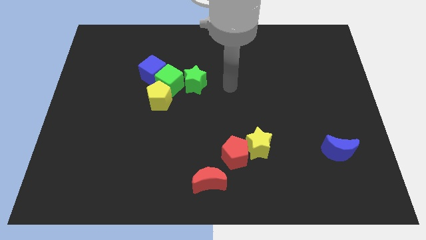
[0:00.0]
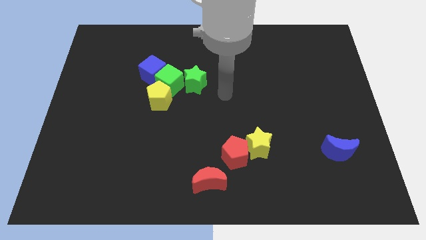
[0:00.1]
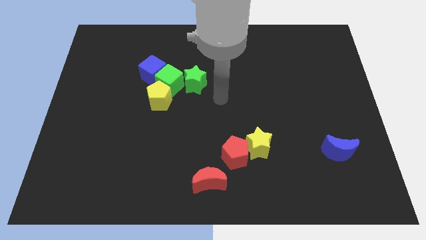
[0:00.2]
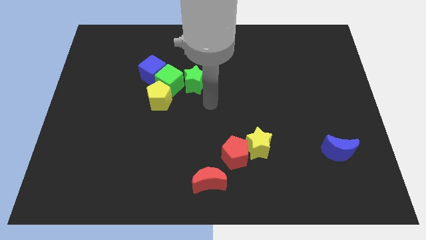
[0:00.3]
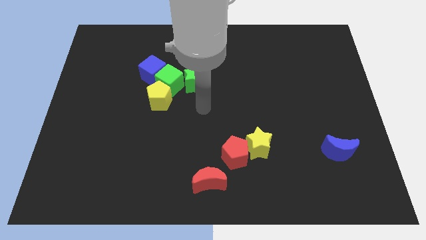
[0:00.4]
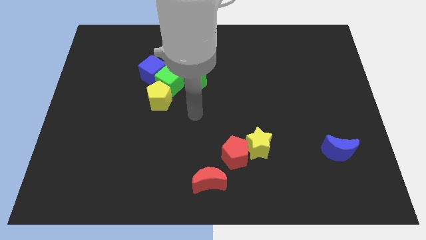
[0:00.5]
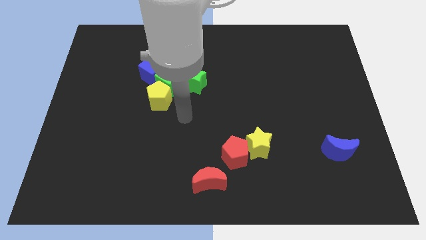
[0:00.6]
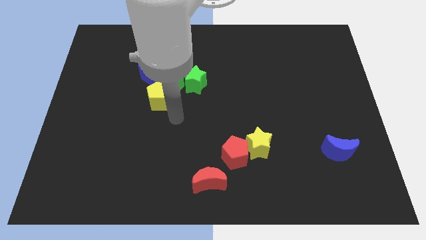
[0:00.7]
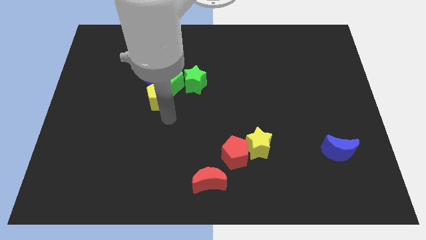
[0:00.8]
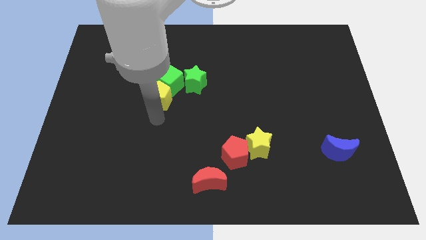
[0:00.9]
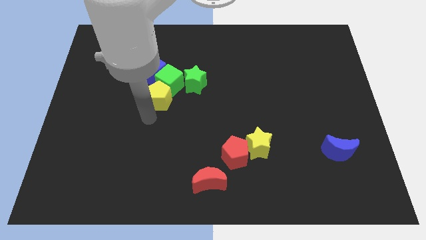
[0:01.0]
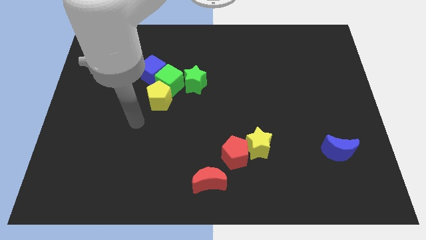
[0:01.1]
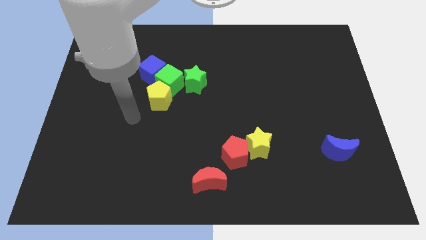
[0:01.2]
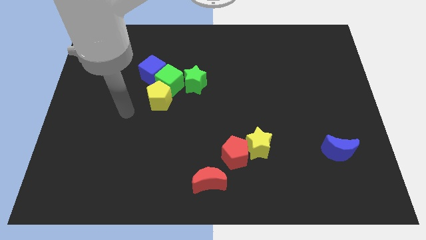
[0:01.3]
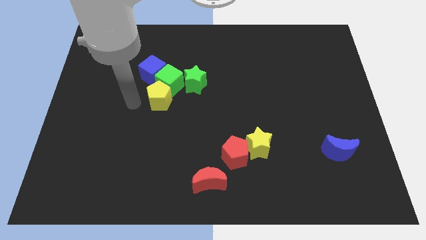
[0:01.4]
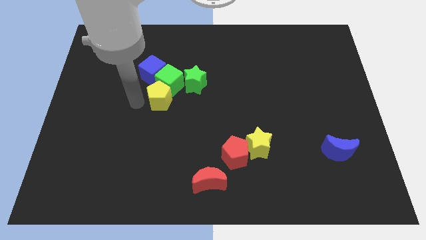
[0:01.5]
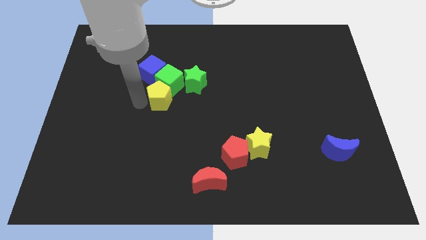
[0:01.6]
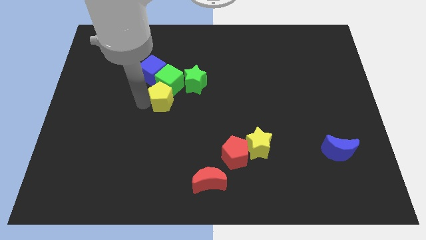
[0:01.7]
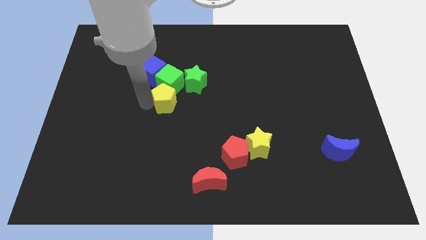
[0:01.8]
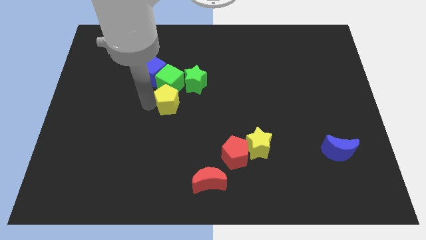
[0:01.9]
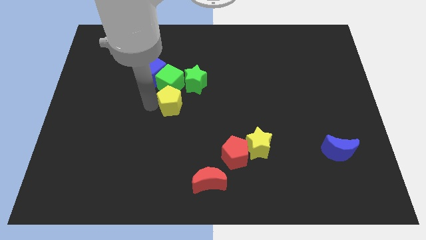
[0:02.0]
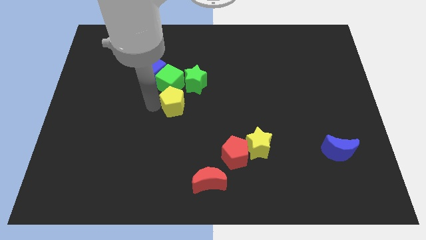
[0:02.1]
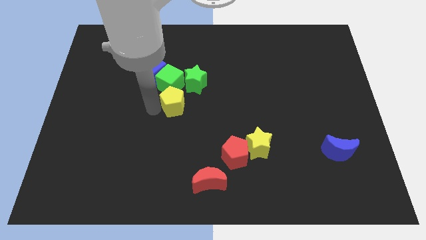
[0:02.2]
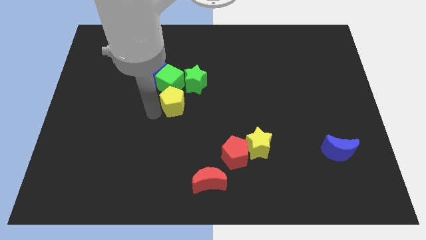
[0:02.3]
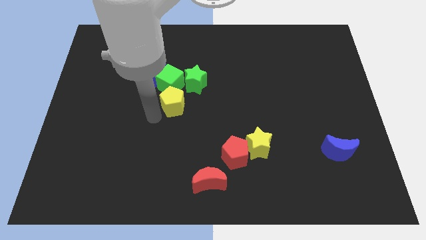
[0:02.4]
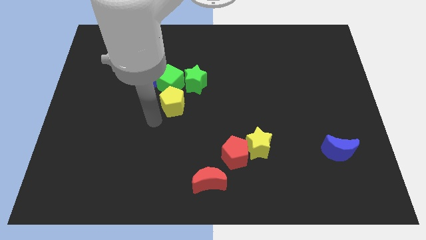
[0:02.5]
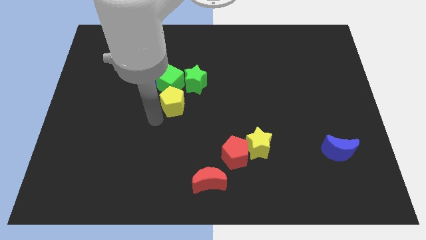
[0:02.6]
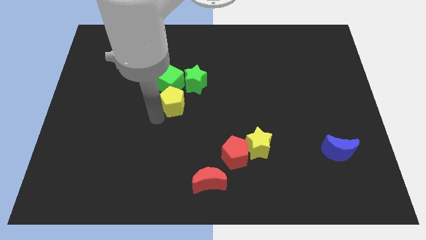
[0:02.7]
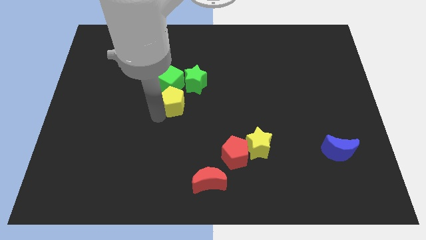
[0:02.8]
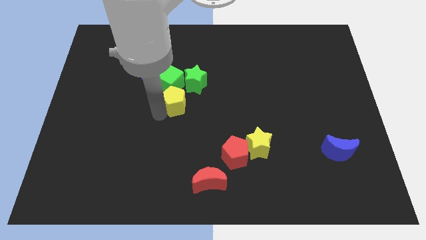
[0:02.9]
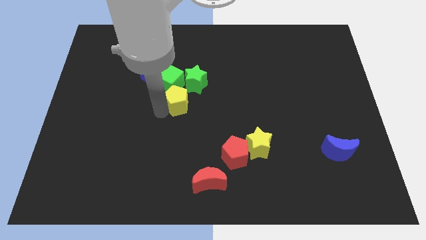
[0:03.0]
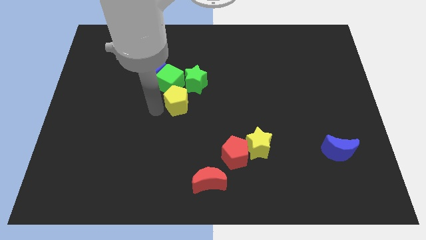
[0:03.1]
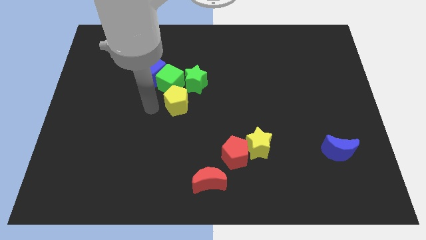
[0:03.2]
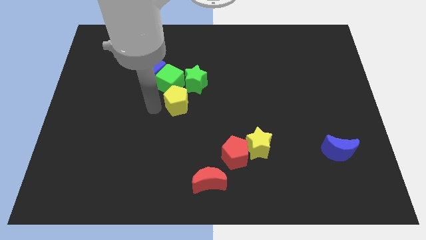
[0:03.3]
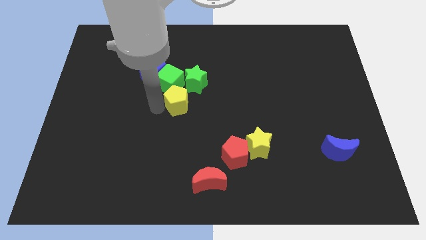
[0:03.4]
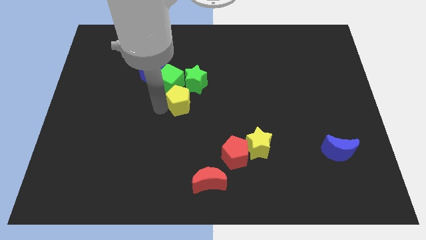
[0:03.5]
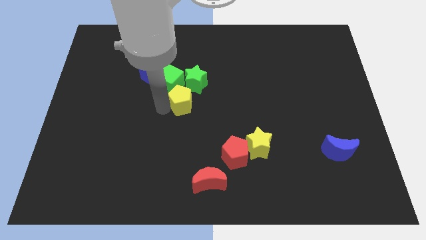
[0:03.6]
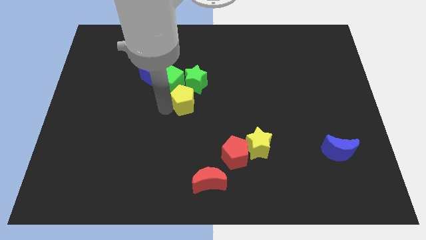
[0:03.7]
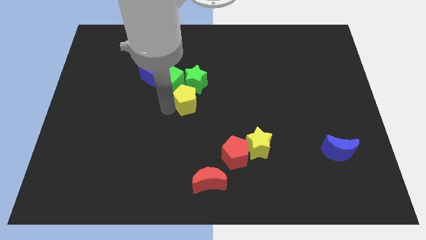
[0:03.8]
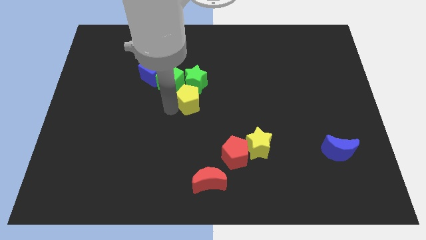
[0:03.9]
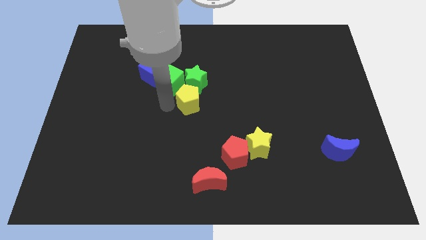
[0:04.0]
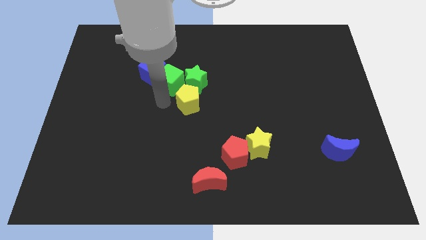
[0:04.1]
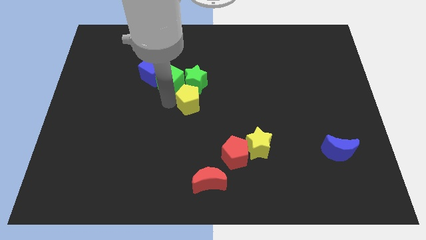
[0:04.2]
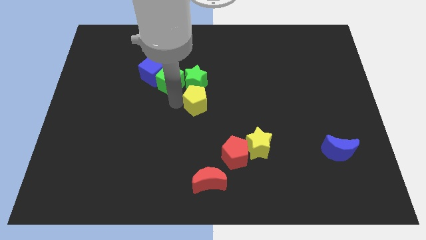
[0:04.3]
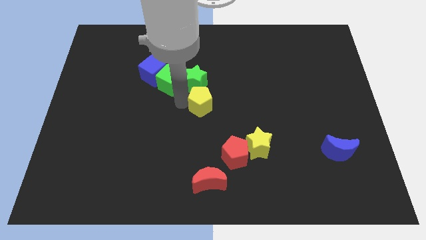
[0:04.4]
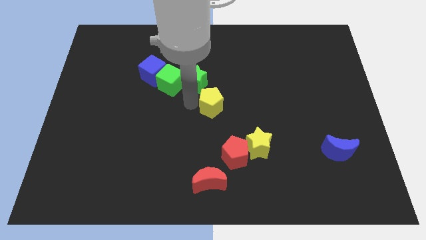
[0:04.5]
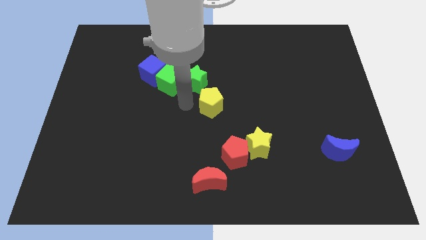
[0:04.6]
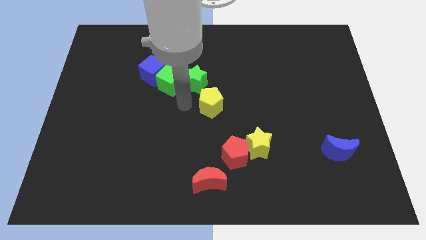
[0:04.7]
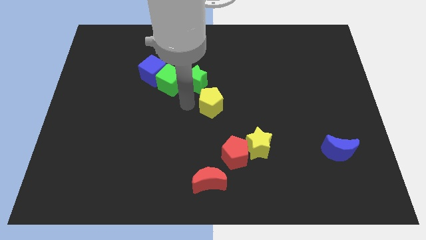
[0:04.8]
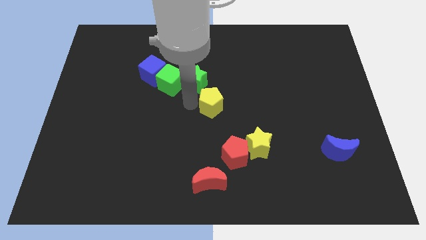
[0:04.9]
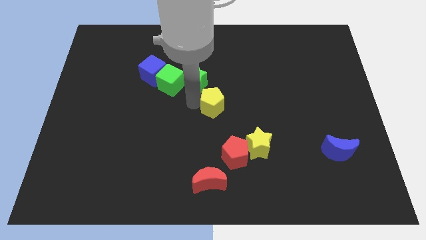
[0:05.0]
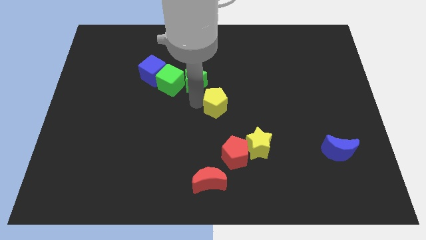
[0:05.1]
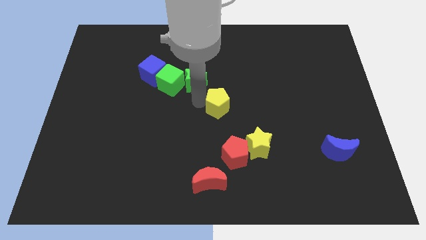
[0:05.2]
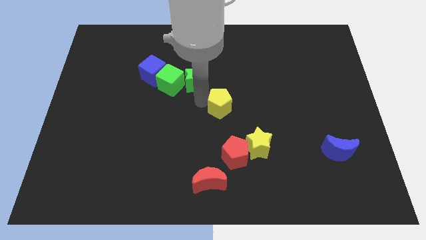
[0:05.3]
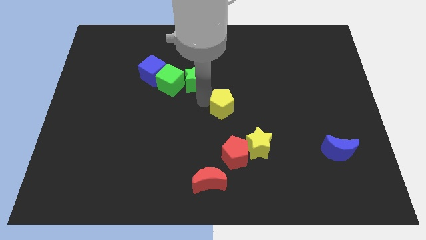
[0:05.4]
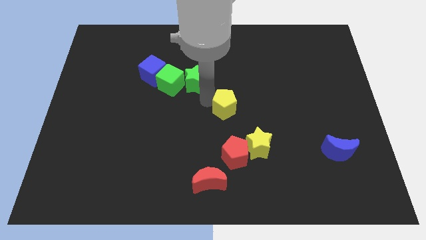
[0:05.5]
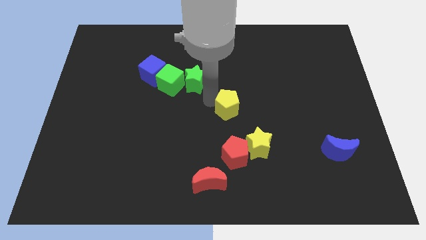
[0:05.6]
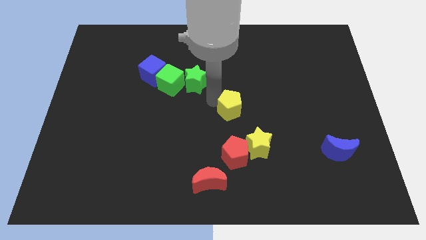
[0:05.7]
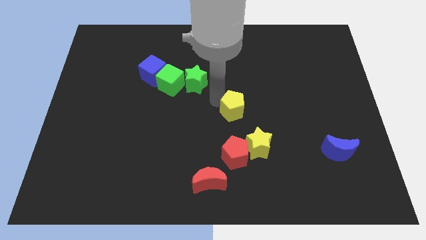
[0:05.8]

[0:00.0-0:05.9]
put the yellow pentagon above the yellow star

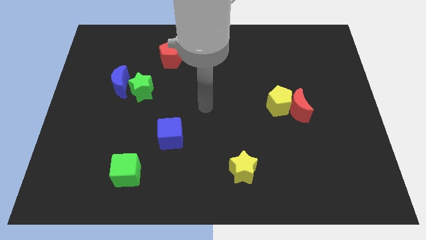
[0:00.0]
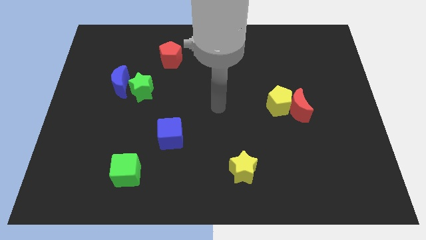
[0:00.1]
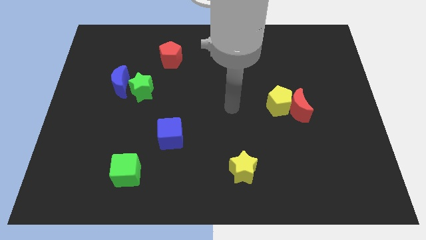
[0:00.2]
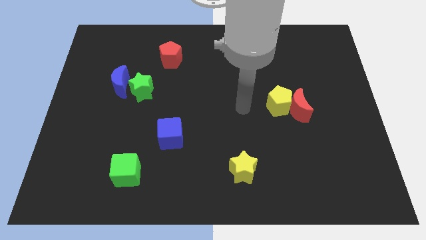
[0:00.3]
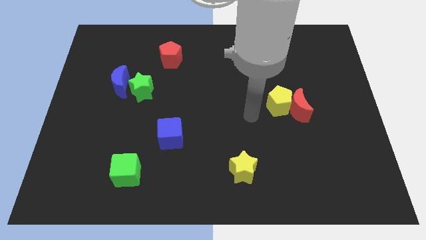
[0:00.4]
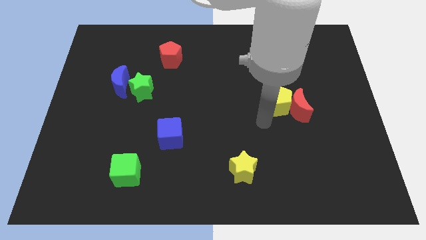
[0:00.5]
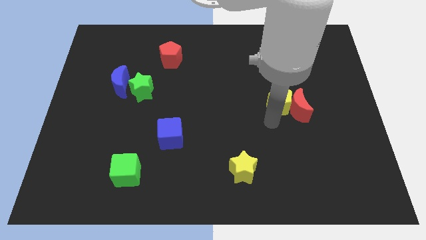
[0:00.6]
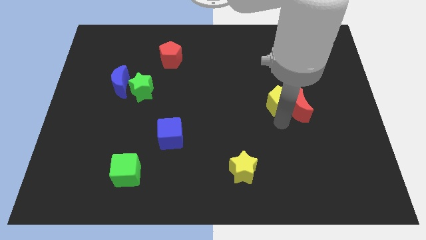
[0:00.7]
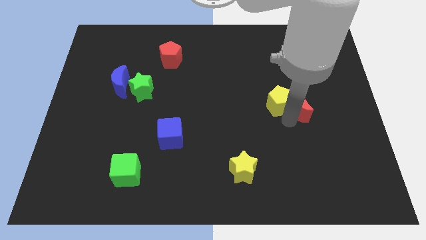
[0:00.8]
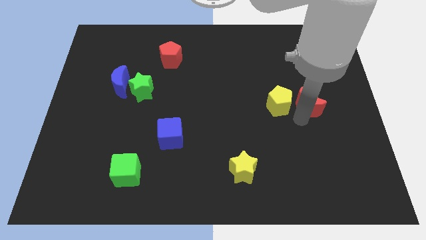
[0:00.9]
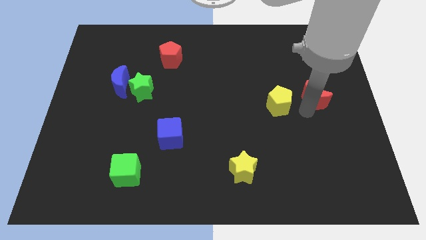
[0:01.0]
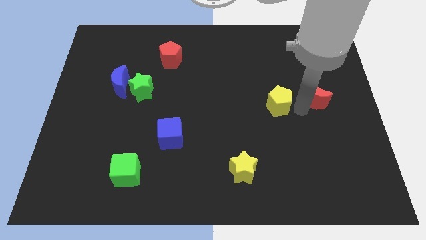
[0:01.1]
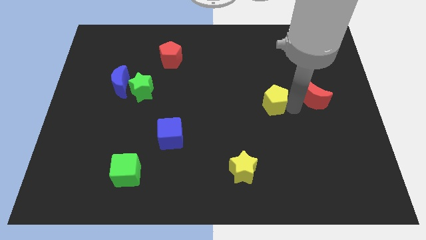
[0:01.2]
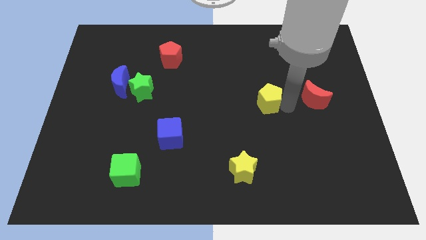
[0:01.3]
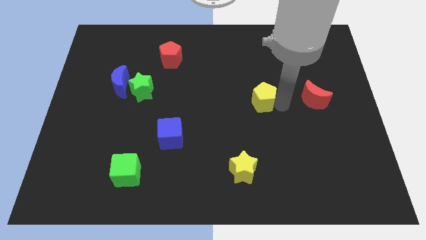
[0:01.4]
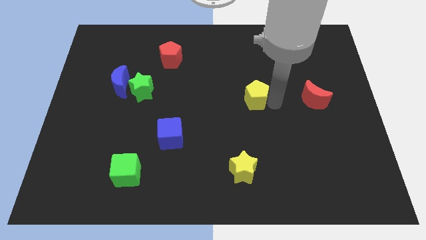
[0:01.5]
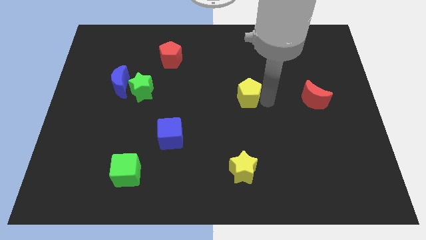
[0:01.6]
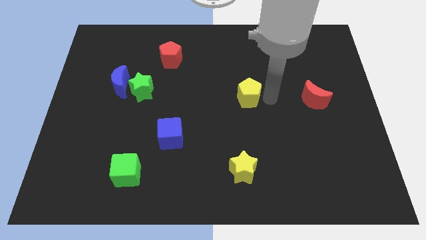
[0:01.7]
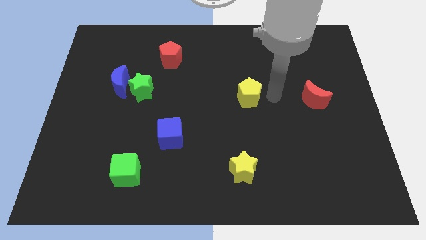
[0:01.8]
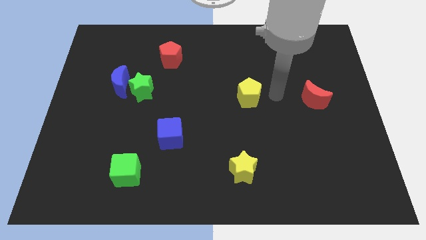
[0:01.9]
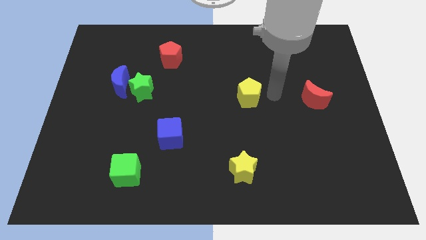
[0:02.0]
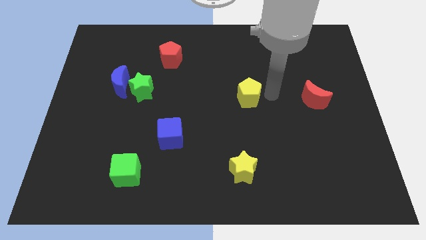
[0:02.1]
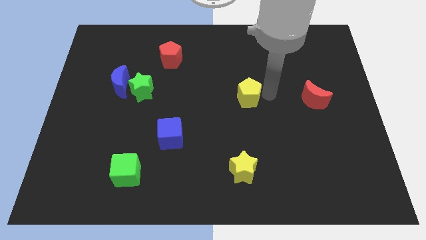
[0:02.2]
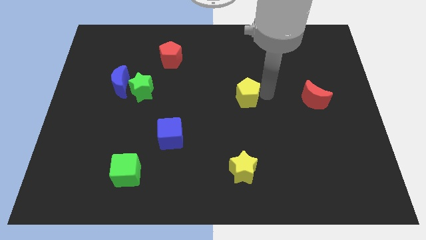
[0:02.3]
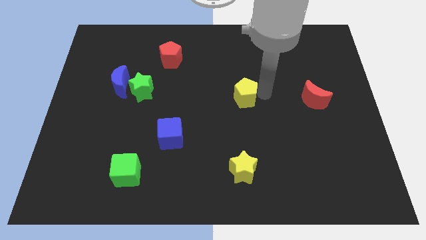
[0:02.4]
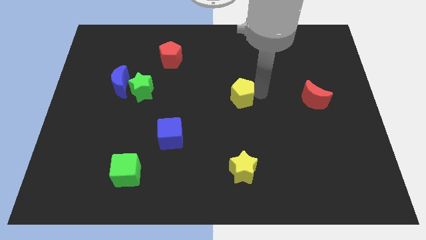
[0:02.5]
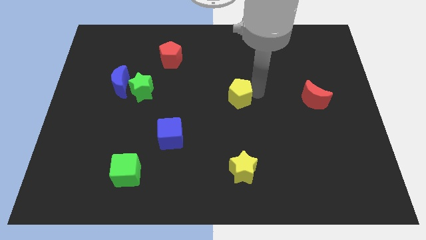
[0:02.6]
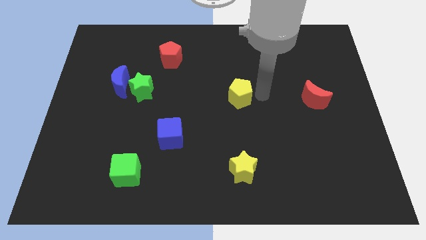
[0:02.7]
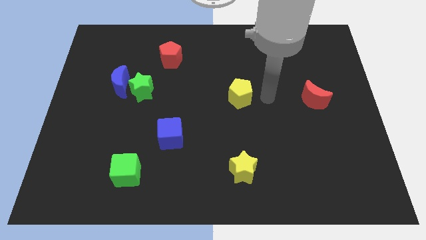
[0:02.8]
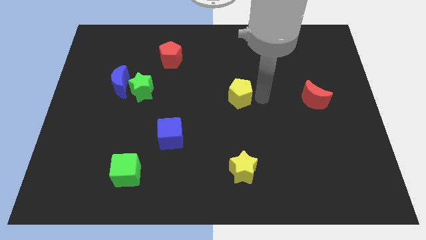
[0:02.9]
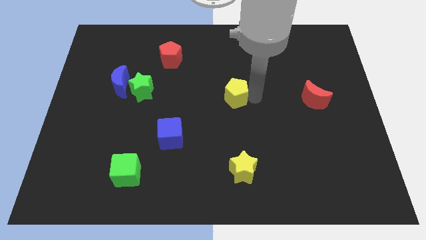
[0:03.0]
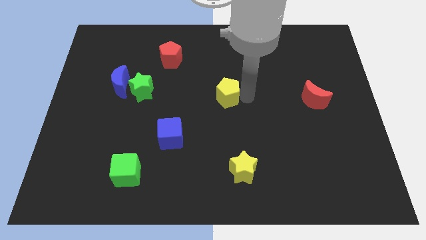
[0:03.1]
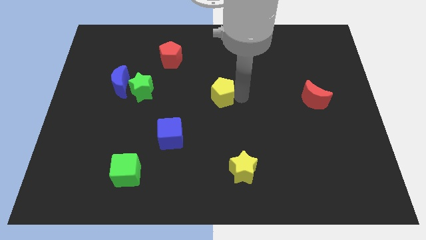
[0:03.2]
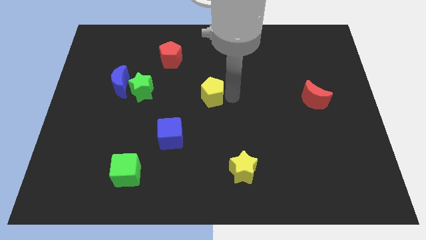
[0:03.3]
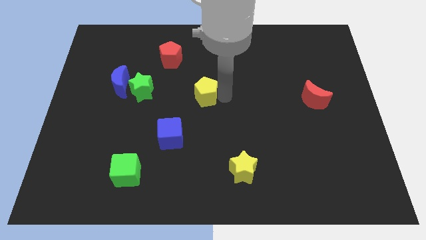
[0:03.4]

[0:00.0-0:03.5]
move the yellow pentagon right of the green star
